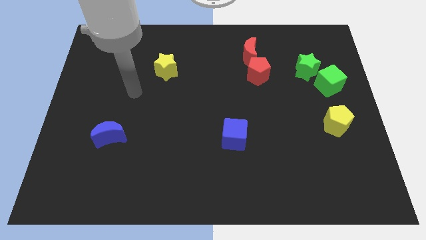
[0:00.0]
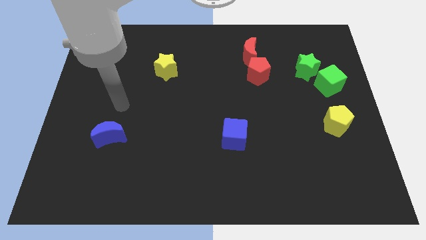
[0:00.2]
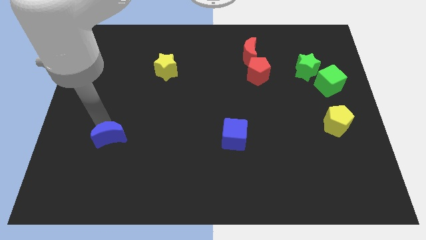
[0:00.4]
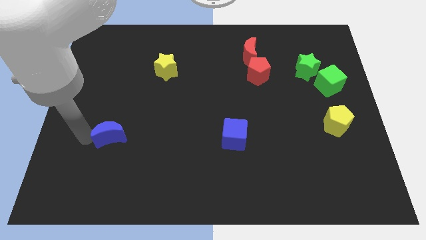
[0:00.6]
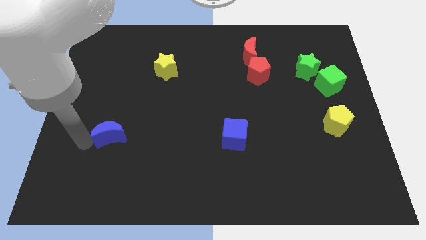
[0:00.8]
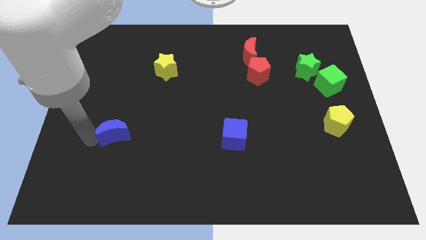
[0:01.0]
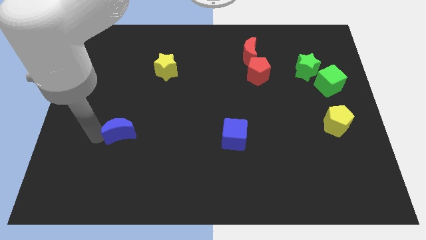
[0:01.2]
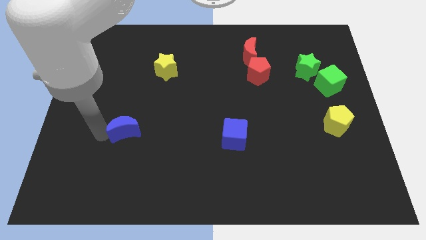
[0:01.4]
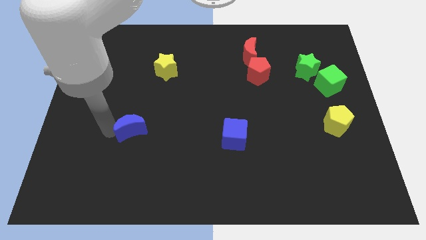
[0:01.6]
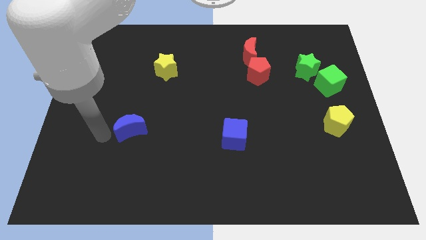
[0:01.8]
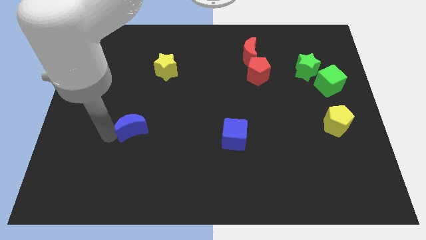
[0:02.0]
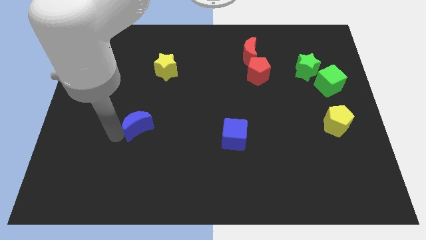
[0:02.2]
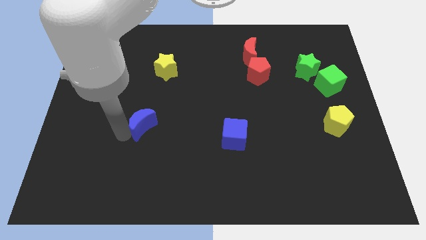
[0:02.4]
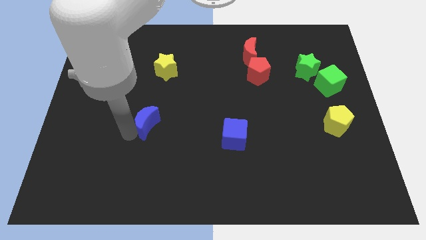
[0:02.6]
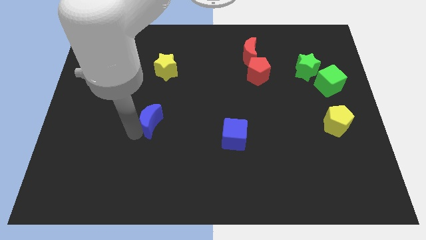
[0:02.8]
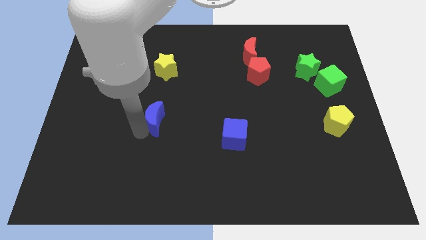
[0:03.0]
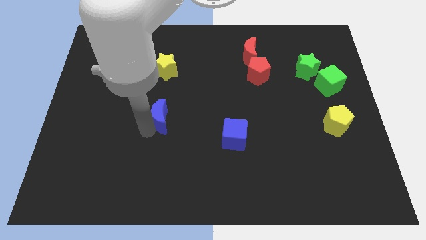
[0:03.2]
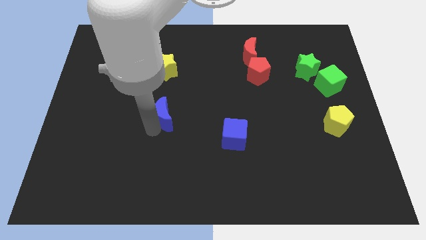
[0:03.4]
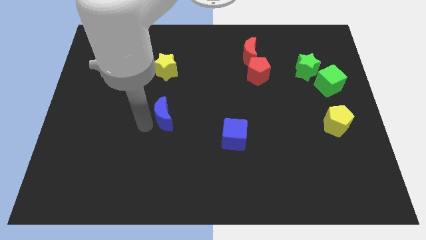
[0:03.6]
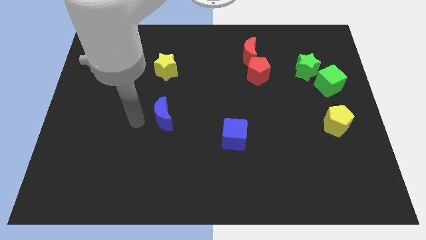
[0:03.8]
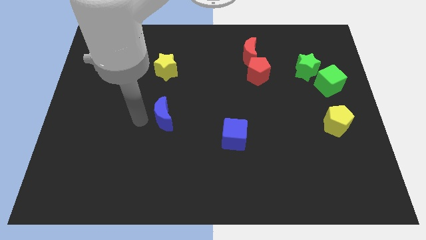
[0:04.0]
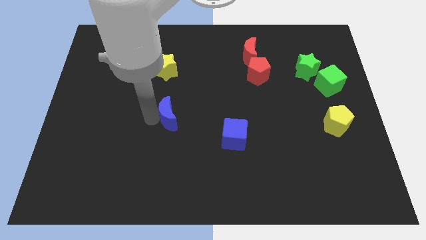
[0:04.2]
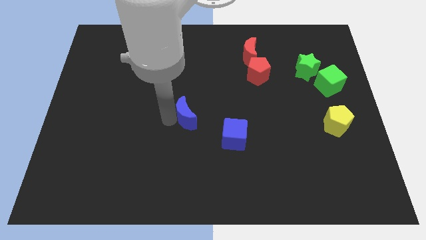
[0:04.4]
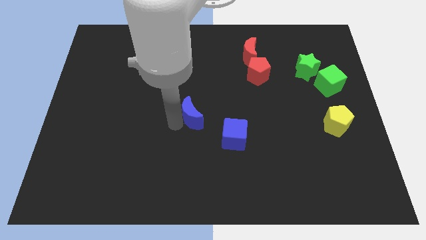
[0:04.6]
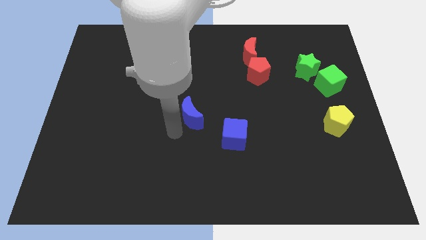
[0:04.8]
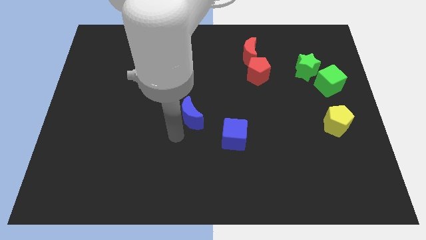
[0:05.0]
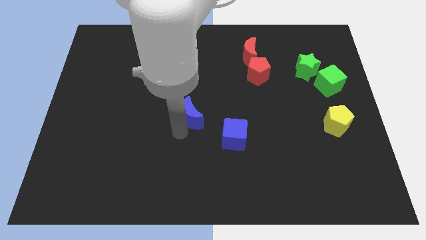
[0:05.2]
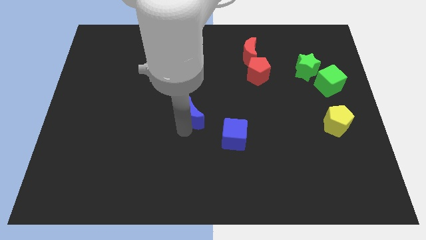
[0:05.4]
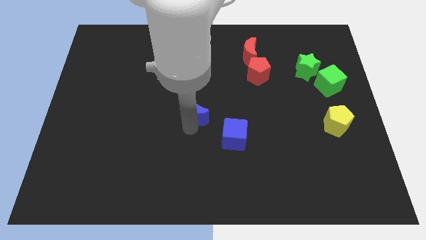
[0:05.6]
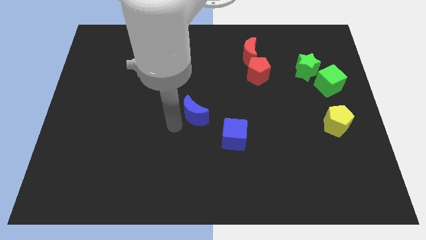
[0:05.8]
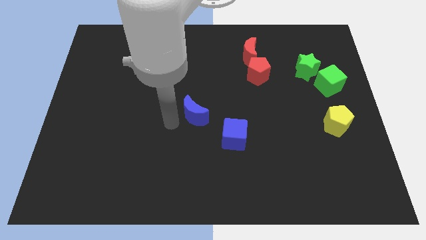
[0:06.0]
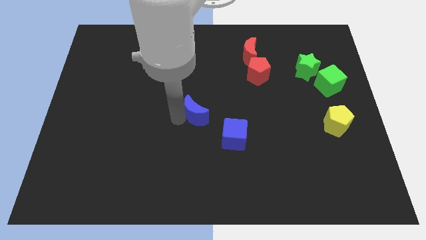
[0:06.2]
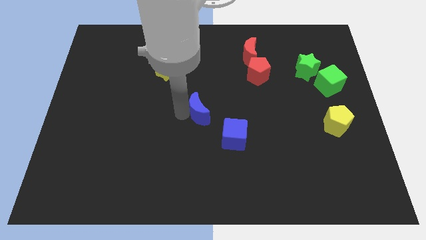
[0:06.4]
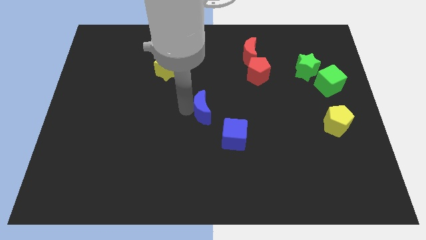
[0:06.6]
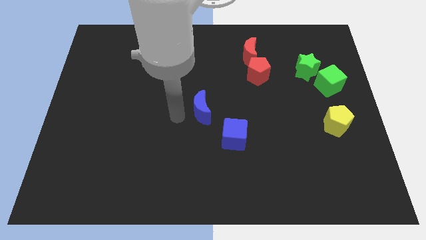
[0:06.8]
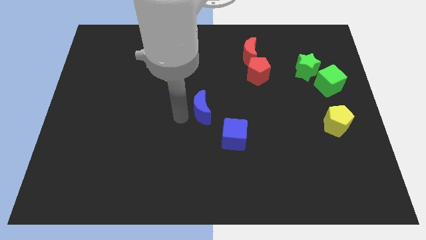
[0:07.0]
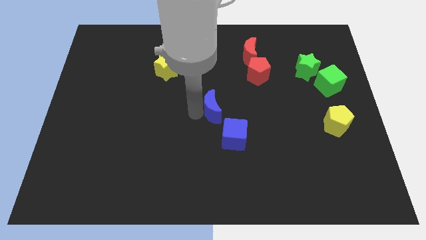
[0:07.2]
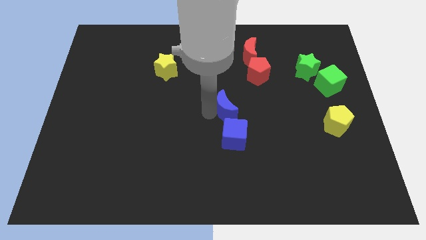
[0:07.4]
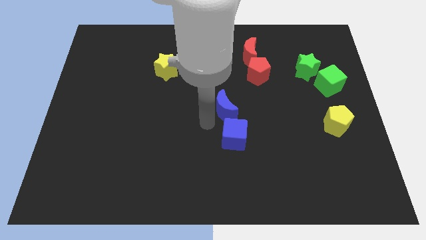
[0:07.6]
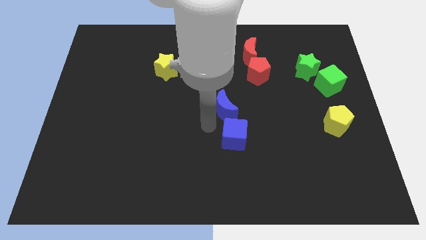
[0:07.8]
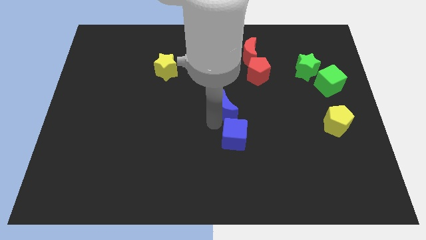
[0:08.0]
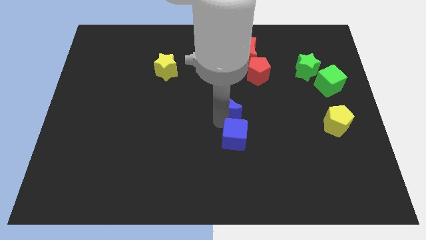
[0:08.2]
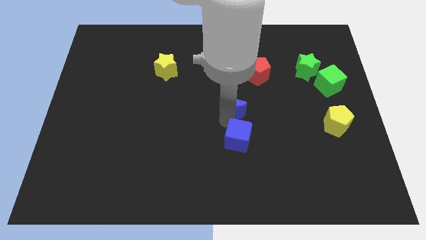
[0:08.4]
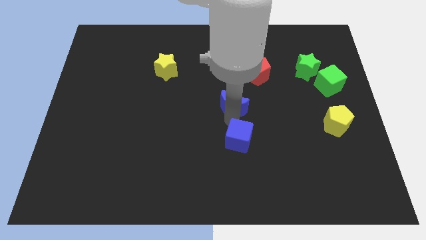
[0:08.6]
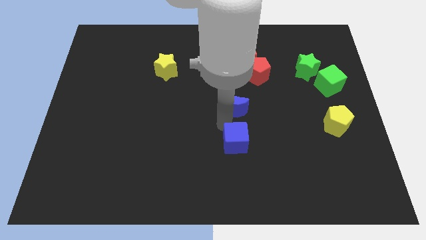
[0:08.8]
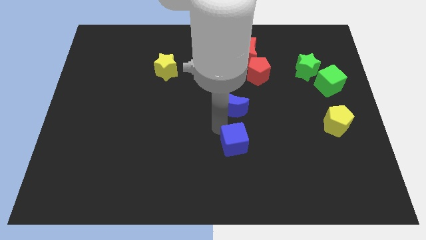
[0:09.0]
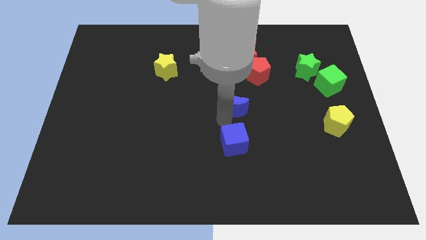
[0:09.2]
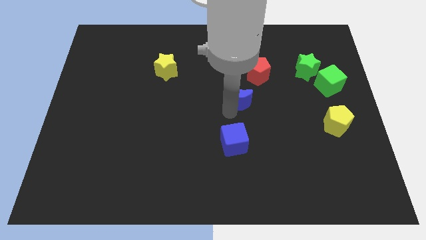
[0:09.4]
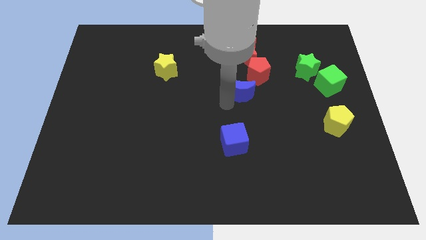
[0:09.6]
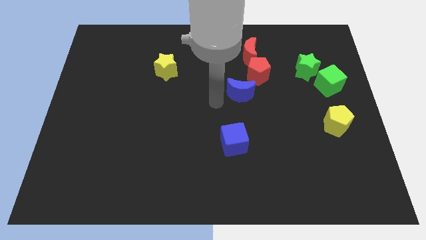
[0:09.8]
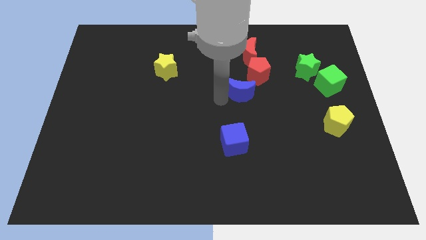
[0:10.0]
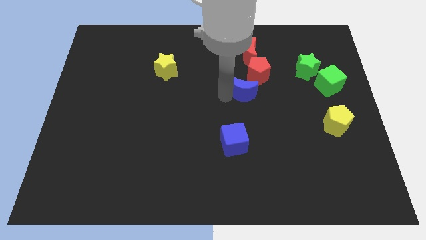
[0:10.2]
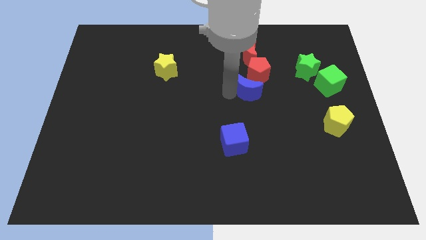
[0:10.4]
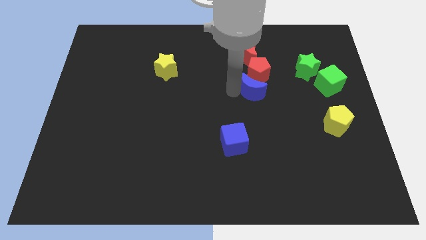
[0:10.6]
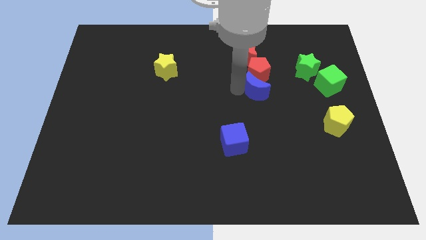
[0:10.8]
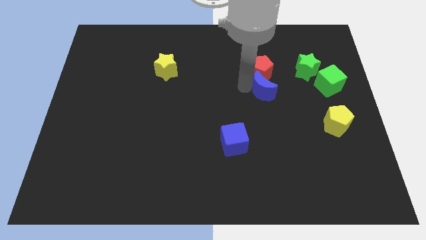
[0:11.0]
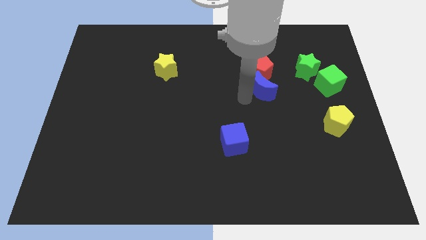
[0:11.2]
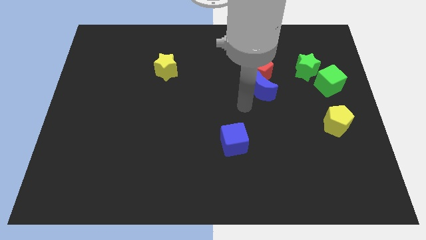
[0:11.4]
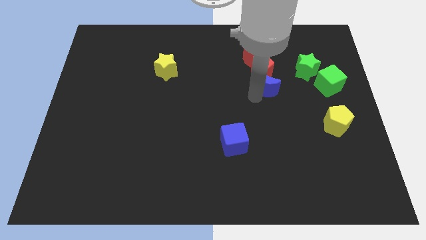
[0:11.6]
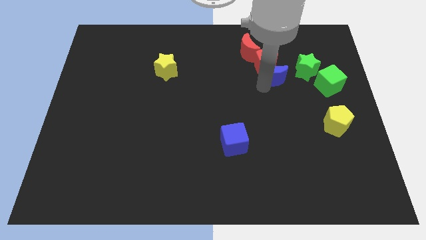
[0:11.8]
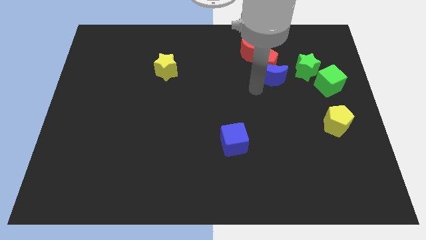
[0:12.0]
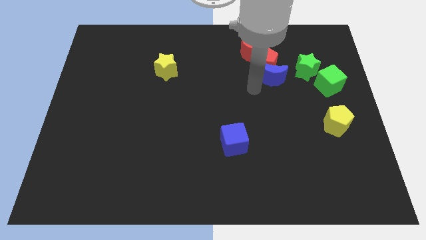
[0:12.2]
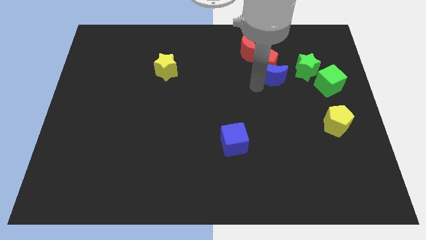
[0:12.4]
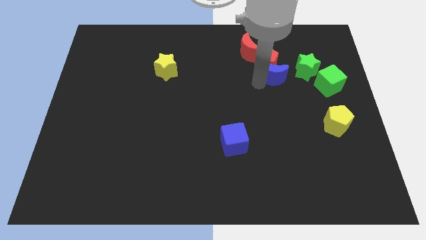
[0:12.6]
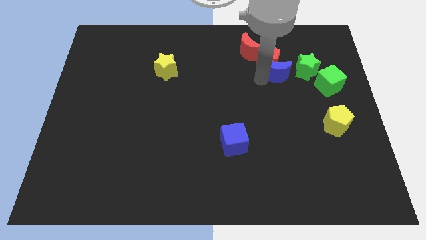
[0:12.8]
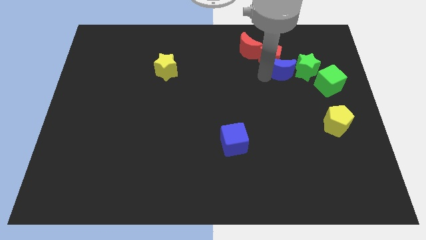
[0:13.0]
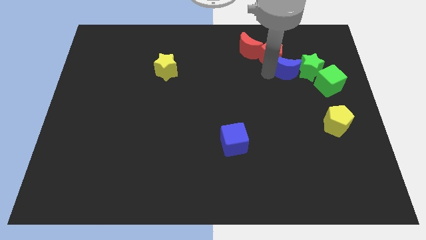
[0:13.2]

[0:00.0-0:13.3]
slide the blue moon to the top left of the green cube
